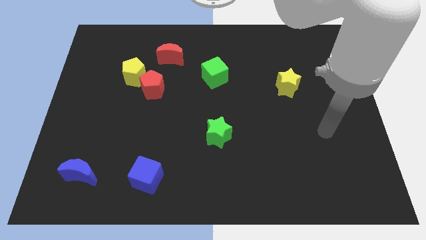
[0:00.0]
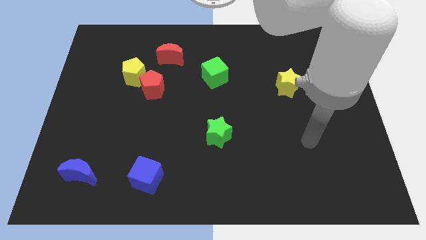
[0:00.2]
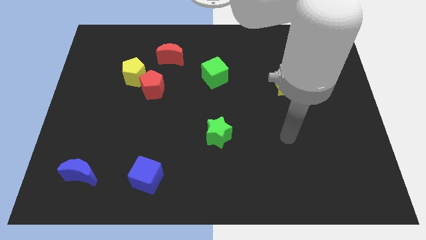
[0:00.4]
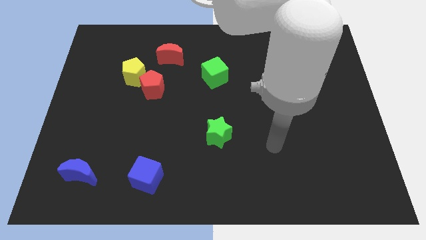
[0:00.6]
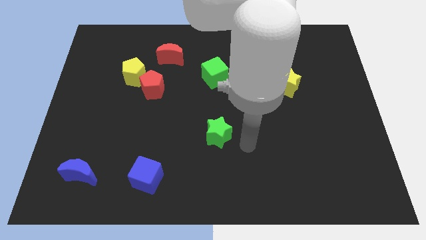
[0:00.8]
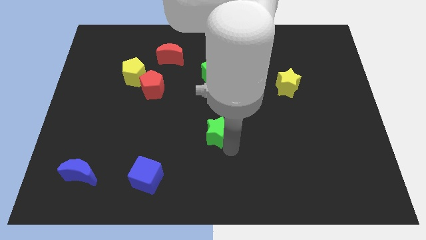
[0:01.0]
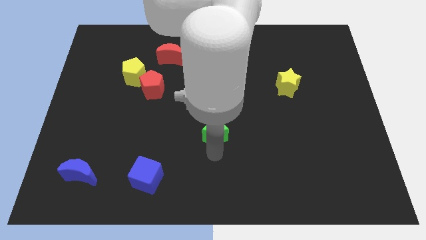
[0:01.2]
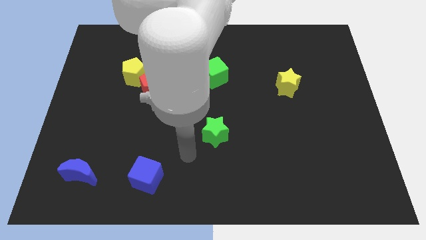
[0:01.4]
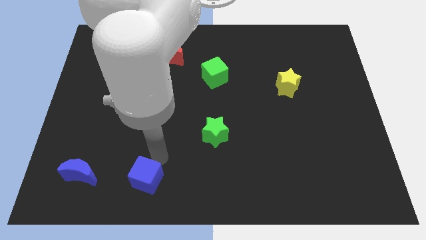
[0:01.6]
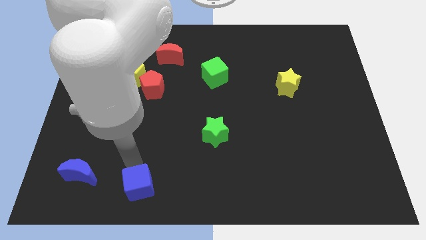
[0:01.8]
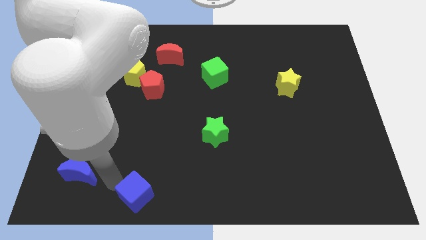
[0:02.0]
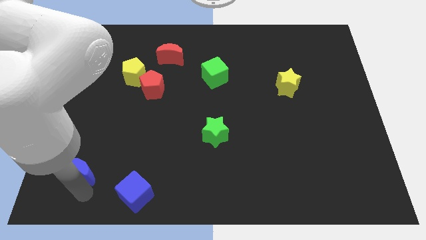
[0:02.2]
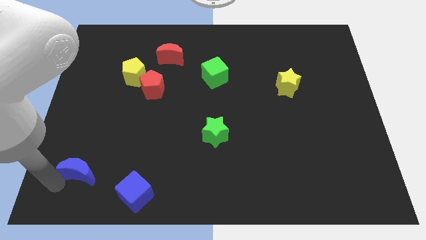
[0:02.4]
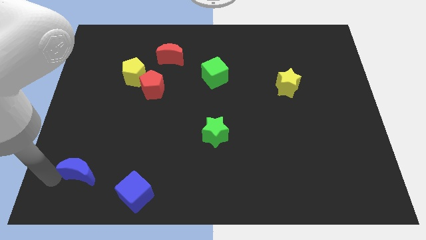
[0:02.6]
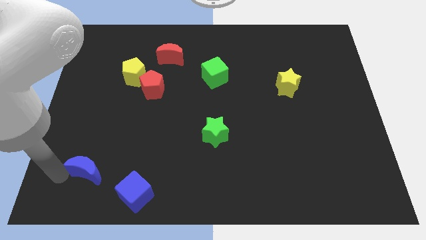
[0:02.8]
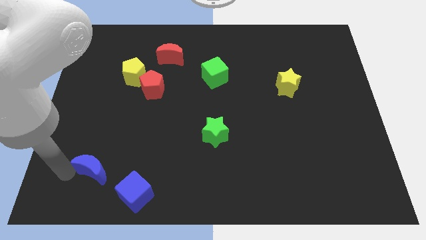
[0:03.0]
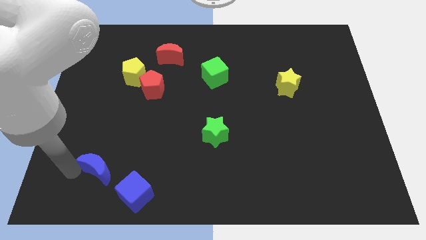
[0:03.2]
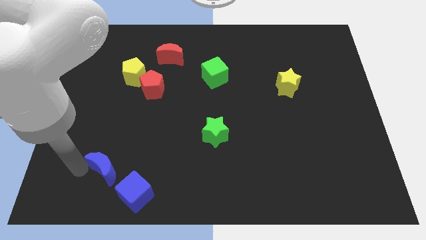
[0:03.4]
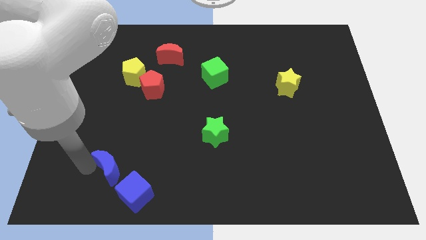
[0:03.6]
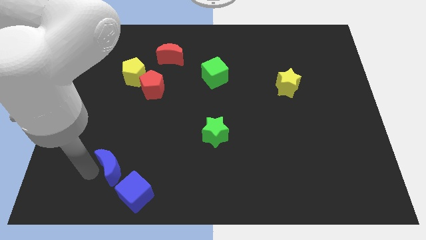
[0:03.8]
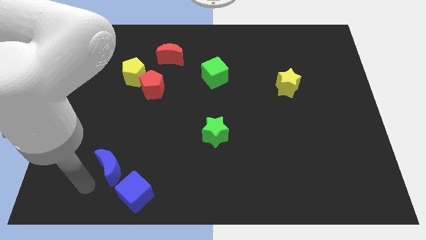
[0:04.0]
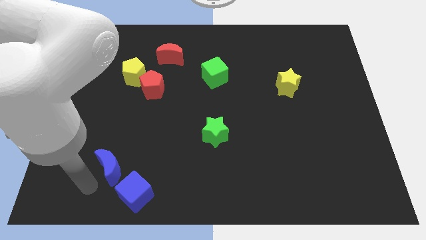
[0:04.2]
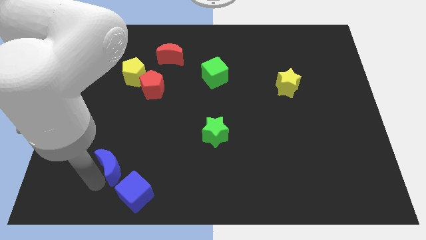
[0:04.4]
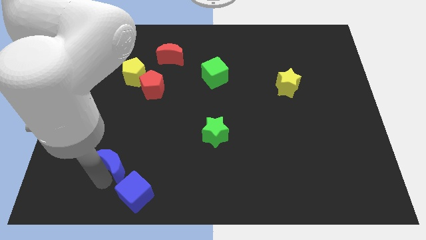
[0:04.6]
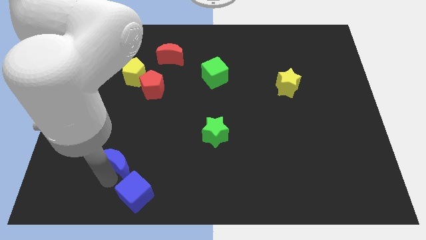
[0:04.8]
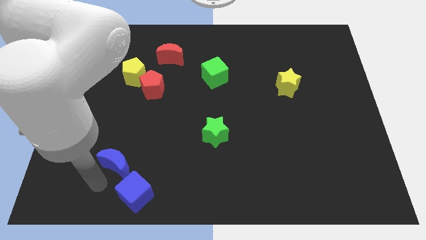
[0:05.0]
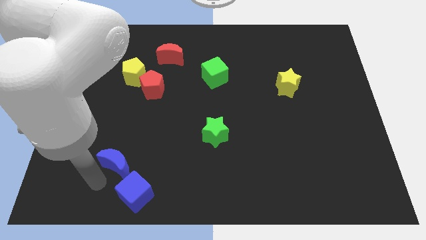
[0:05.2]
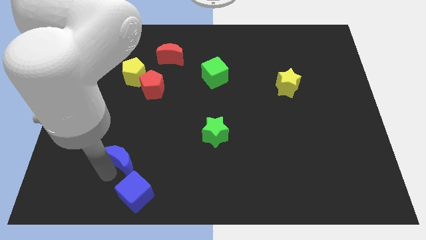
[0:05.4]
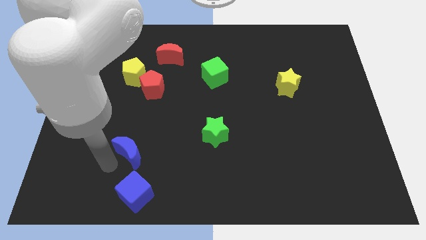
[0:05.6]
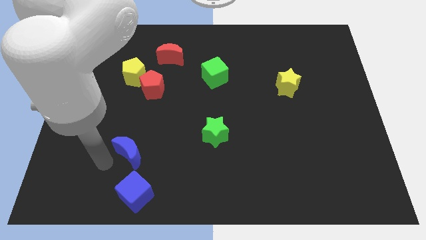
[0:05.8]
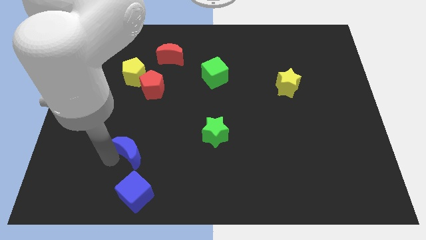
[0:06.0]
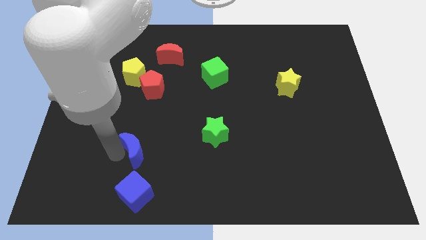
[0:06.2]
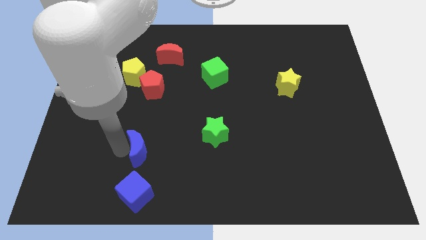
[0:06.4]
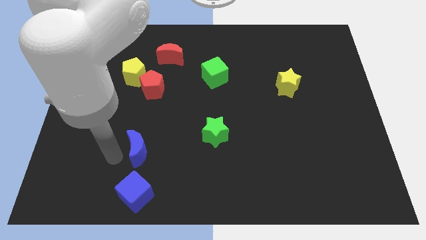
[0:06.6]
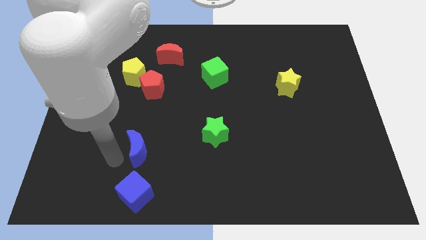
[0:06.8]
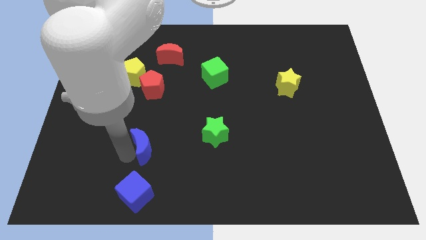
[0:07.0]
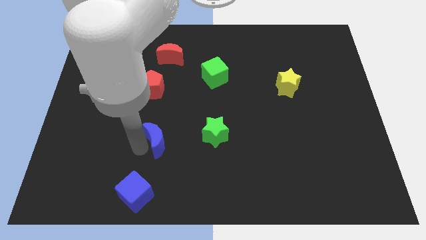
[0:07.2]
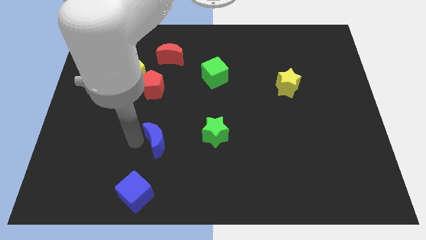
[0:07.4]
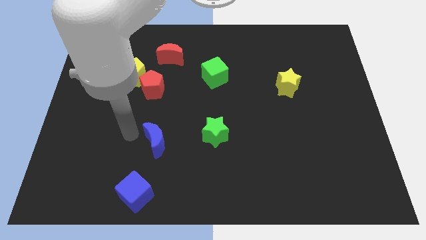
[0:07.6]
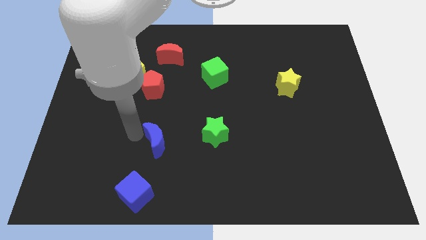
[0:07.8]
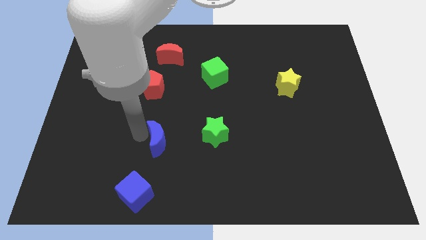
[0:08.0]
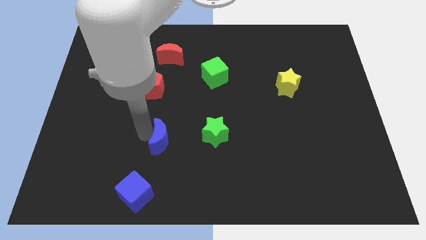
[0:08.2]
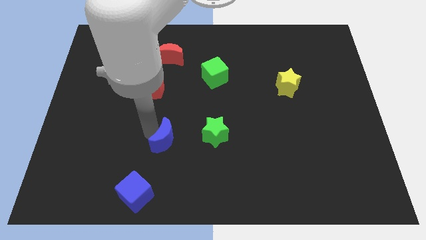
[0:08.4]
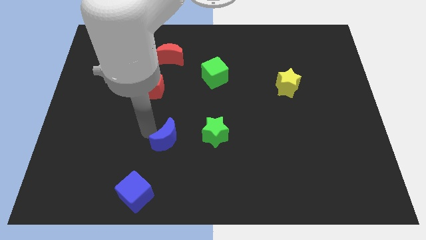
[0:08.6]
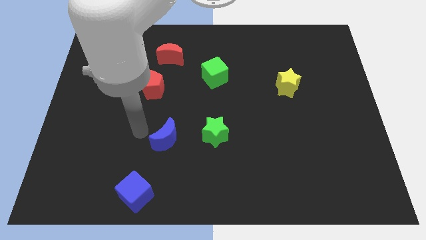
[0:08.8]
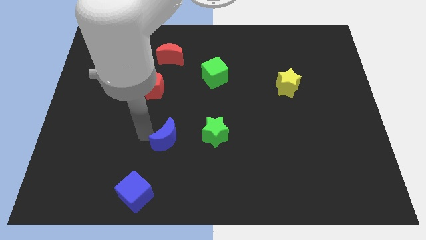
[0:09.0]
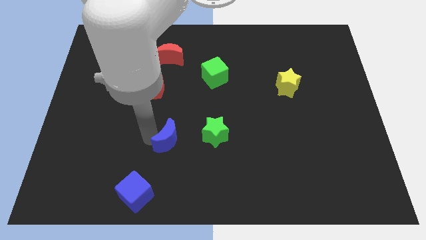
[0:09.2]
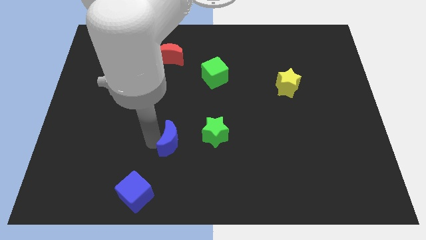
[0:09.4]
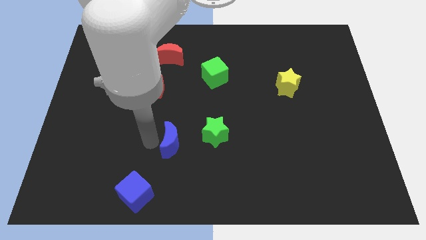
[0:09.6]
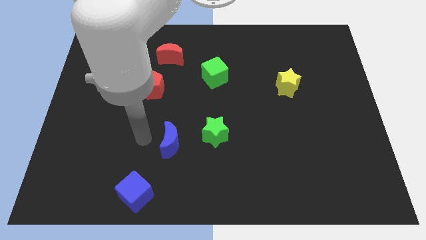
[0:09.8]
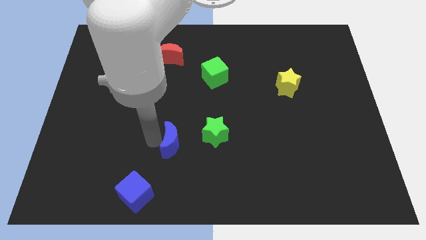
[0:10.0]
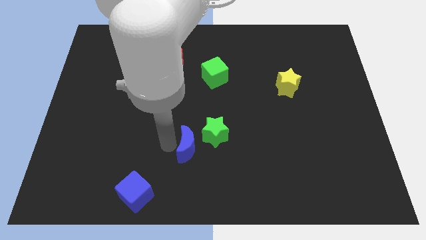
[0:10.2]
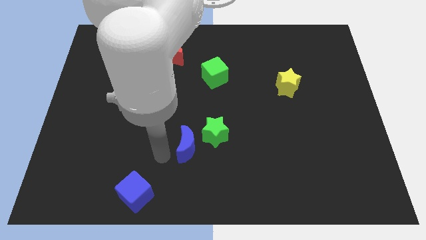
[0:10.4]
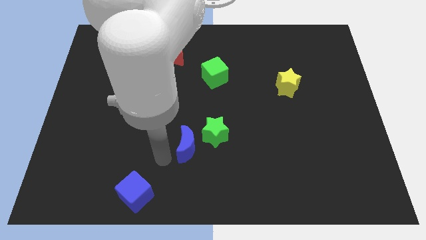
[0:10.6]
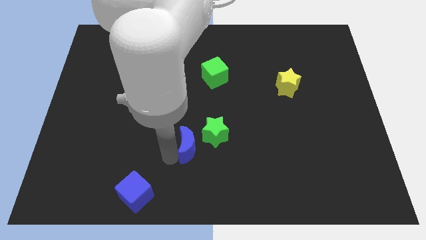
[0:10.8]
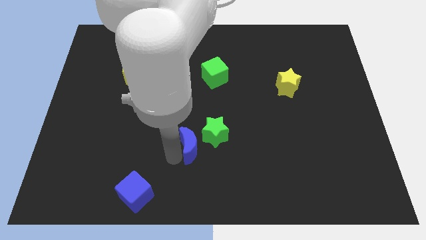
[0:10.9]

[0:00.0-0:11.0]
move the blue moon next to the green star

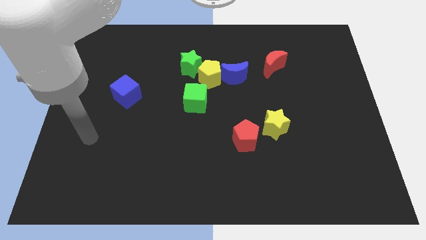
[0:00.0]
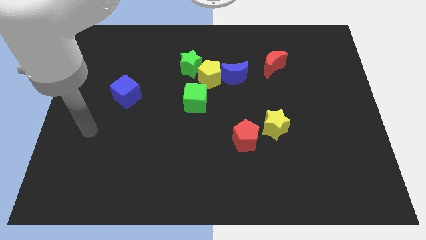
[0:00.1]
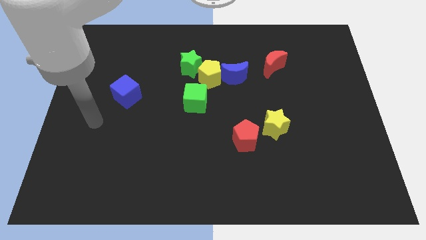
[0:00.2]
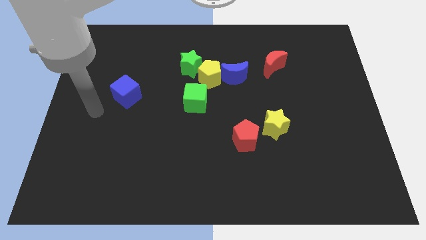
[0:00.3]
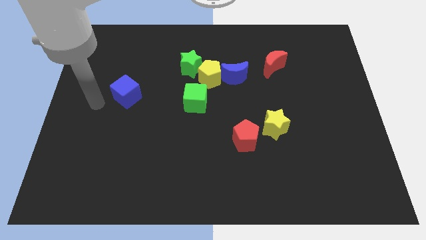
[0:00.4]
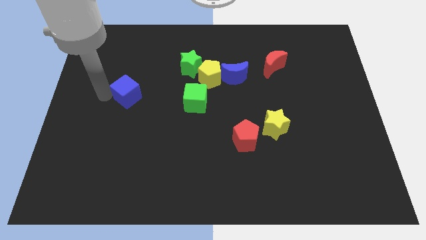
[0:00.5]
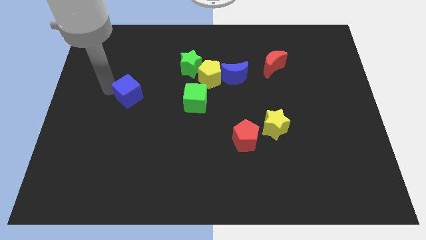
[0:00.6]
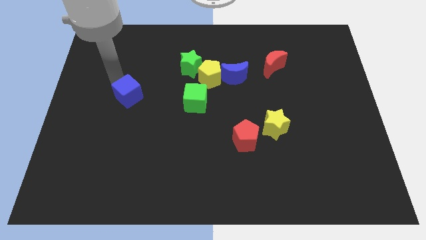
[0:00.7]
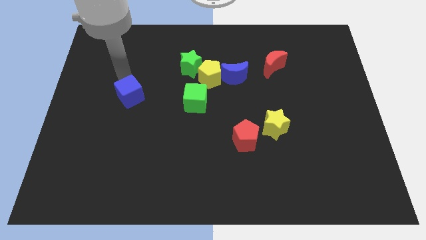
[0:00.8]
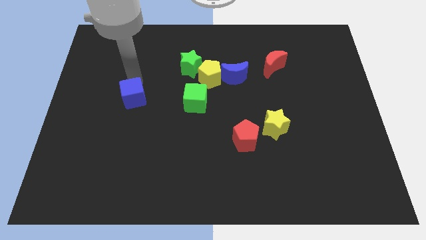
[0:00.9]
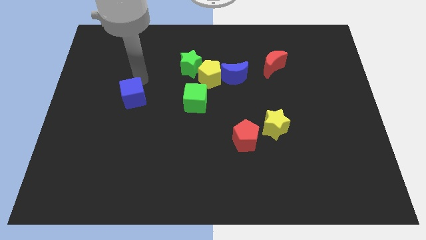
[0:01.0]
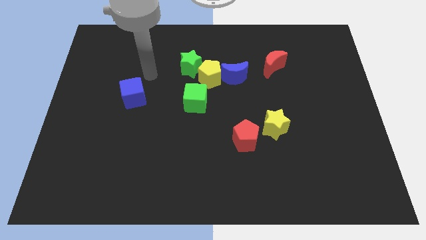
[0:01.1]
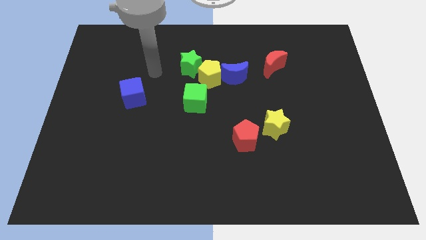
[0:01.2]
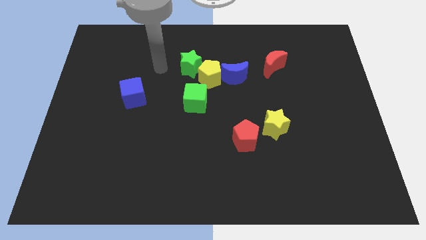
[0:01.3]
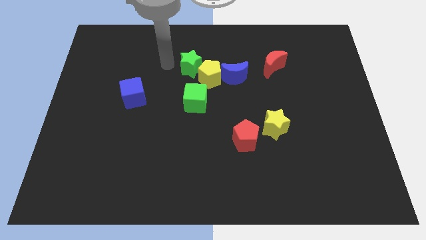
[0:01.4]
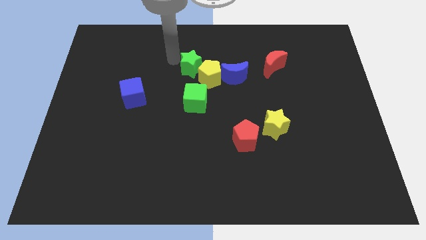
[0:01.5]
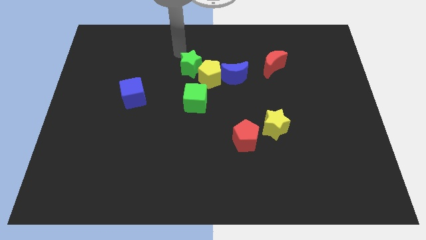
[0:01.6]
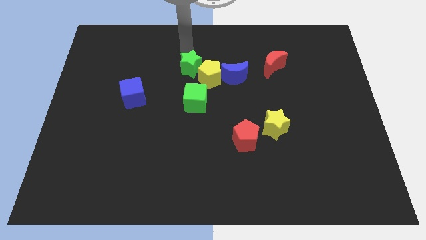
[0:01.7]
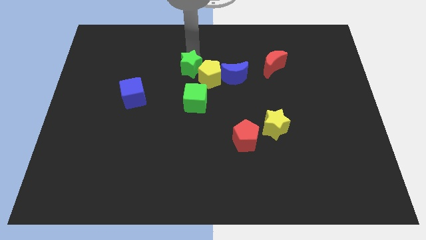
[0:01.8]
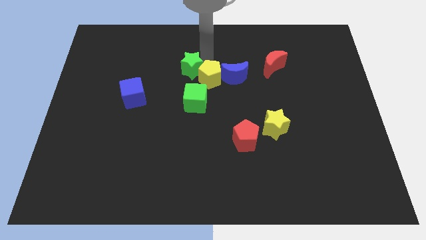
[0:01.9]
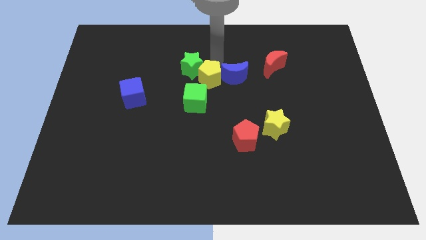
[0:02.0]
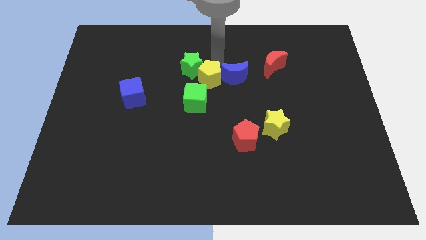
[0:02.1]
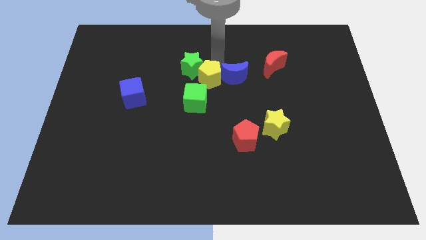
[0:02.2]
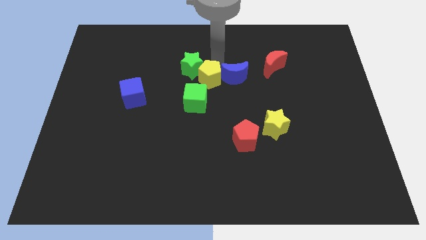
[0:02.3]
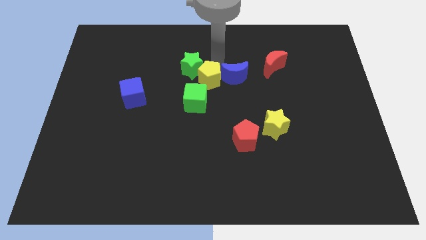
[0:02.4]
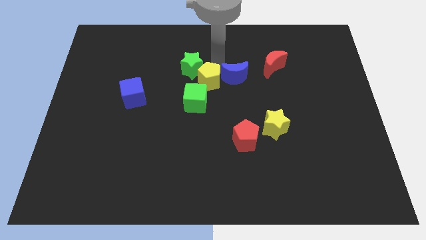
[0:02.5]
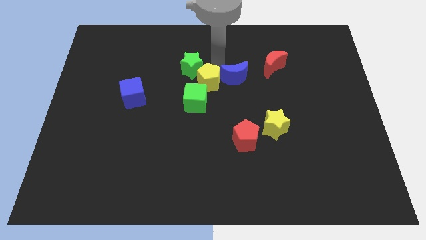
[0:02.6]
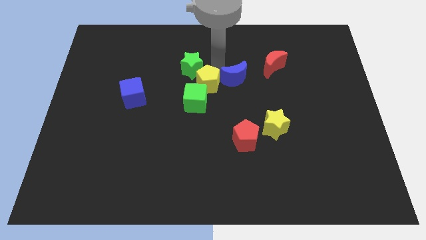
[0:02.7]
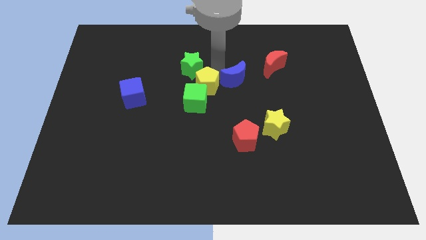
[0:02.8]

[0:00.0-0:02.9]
slide the yellow pentagon next to the green cube
